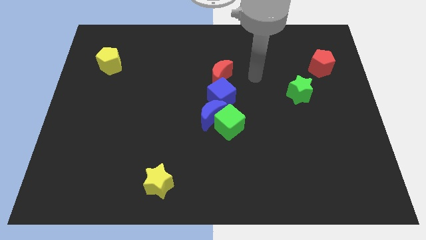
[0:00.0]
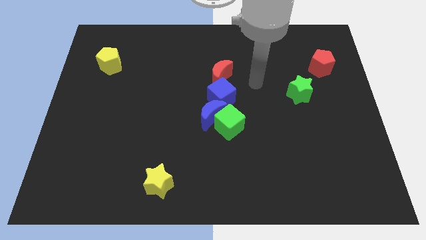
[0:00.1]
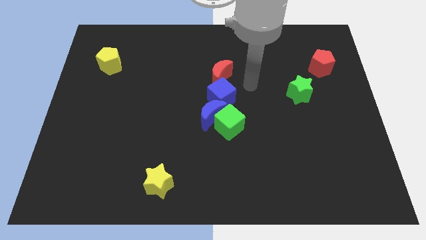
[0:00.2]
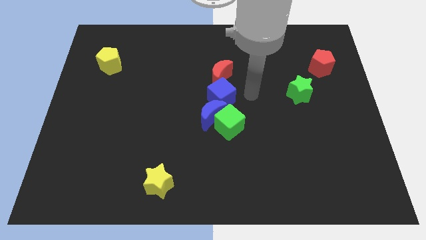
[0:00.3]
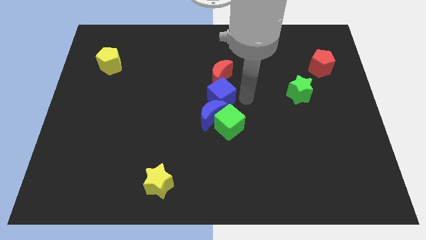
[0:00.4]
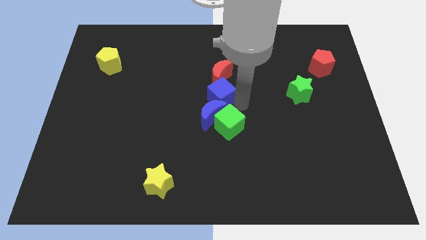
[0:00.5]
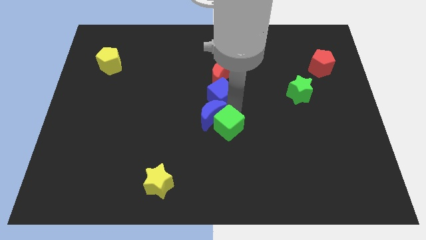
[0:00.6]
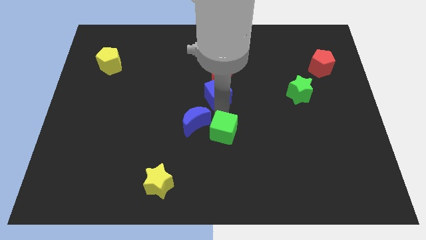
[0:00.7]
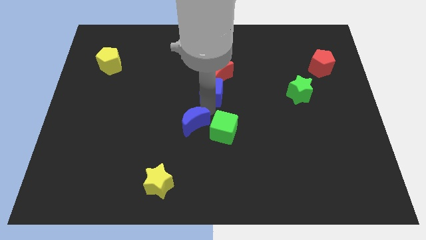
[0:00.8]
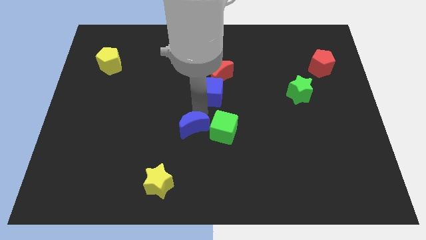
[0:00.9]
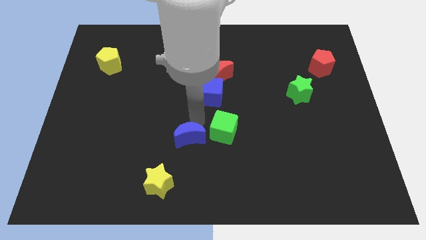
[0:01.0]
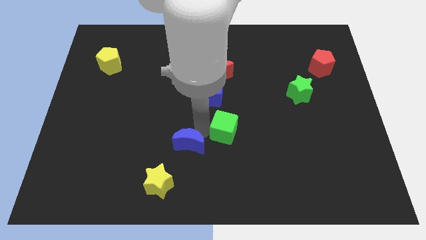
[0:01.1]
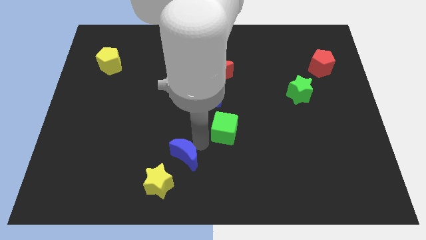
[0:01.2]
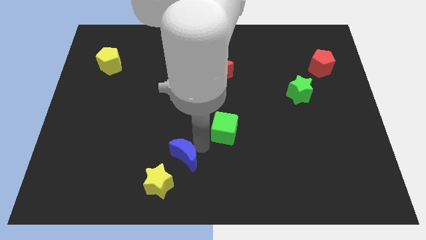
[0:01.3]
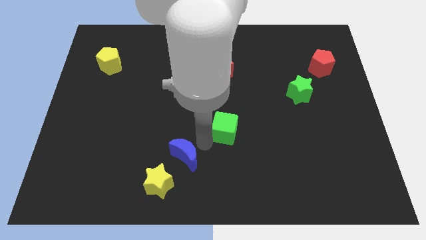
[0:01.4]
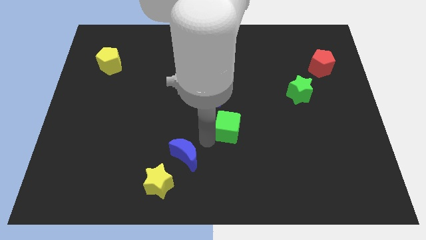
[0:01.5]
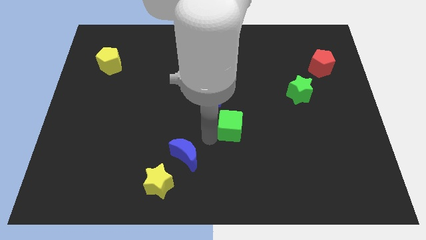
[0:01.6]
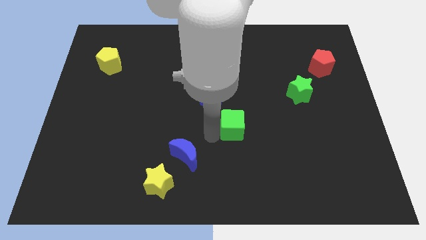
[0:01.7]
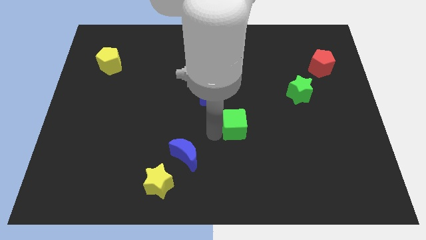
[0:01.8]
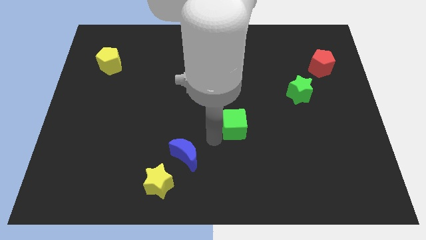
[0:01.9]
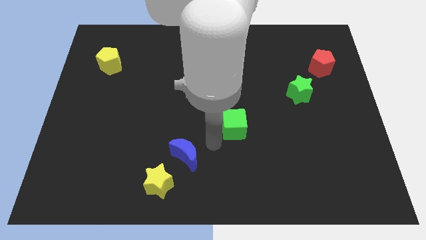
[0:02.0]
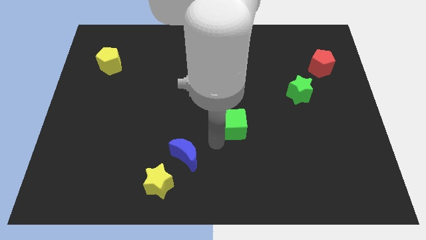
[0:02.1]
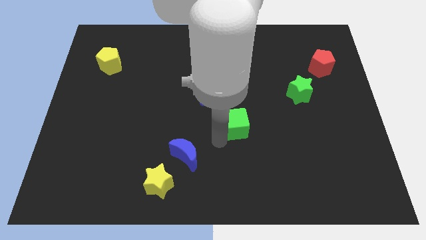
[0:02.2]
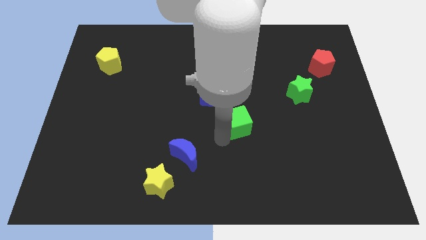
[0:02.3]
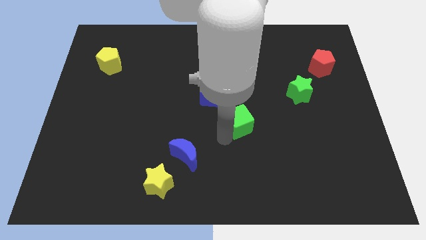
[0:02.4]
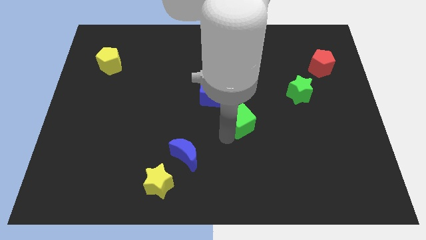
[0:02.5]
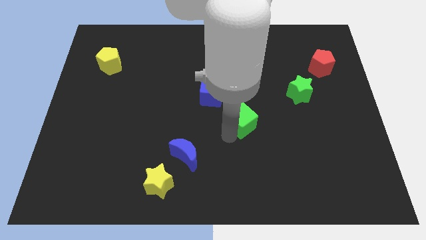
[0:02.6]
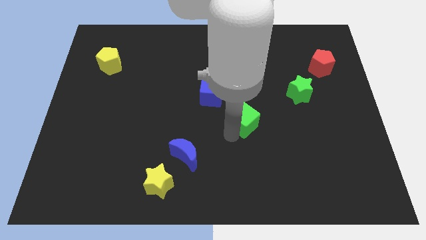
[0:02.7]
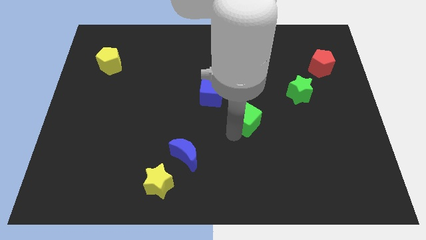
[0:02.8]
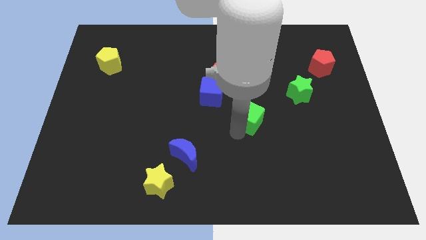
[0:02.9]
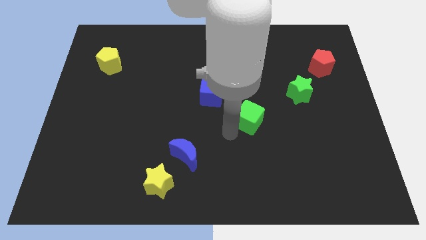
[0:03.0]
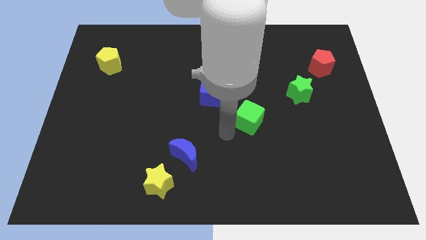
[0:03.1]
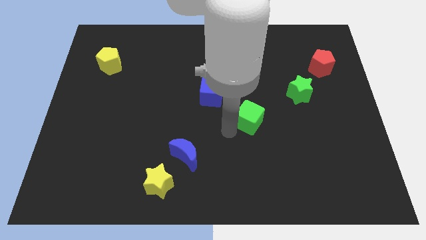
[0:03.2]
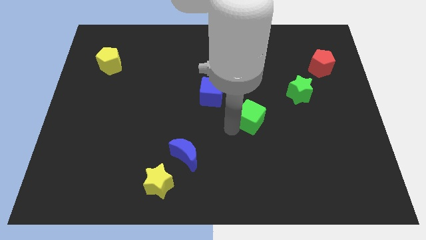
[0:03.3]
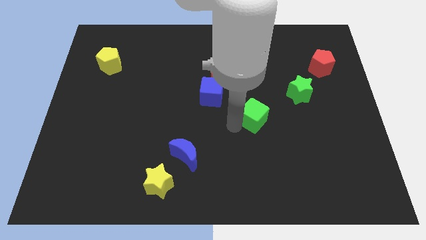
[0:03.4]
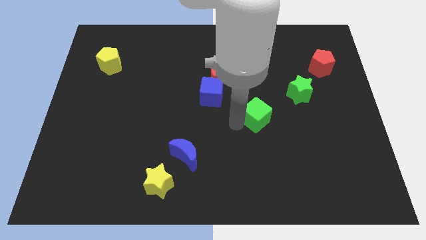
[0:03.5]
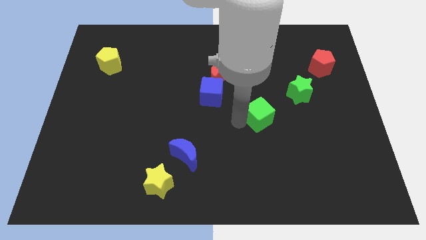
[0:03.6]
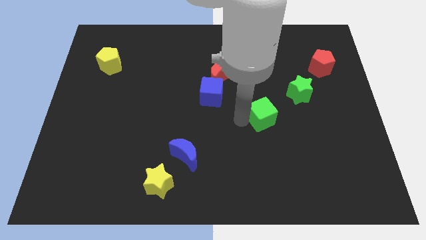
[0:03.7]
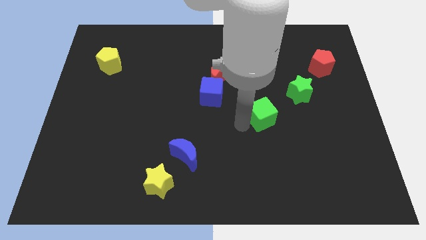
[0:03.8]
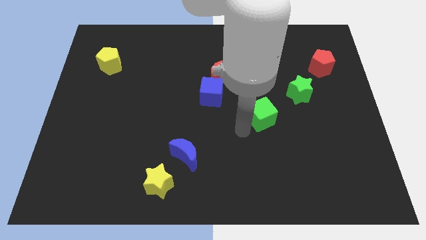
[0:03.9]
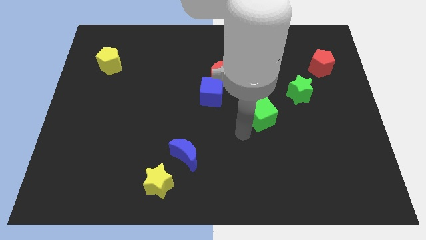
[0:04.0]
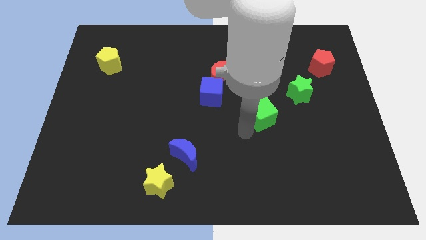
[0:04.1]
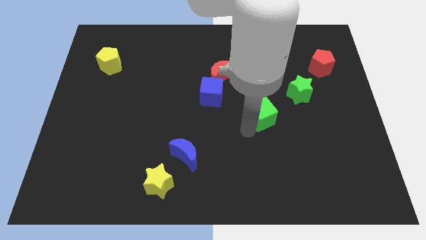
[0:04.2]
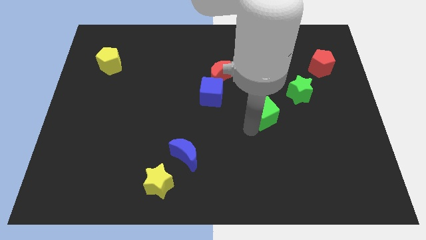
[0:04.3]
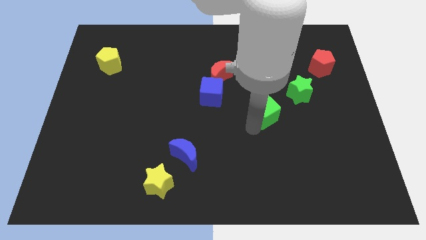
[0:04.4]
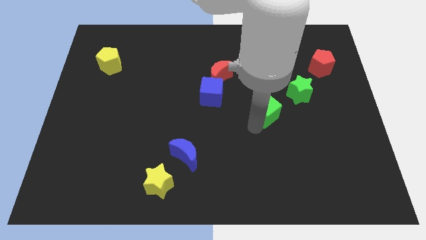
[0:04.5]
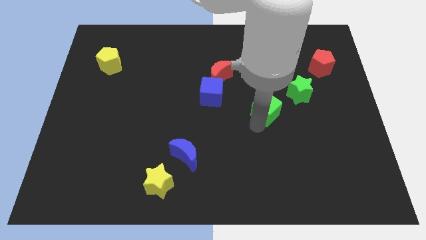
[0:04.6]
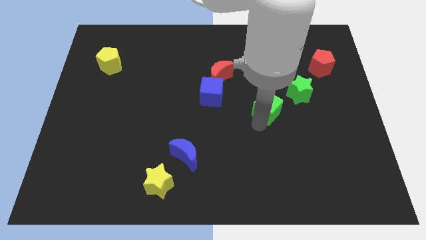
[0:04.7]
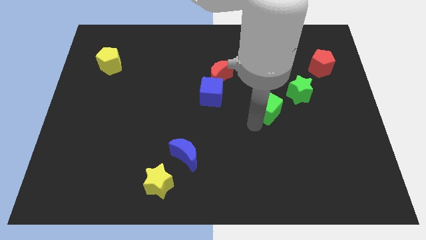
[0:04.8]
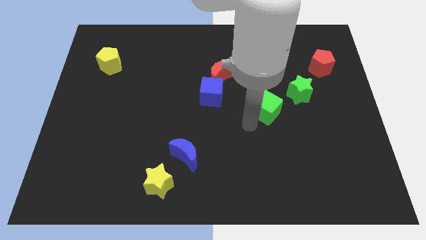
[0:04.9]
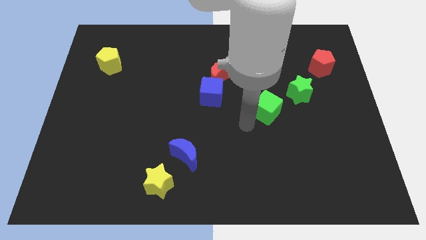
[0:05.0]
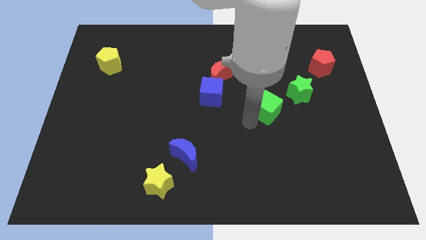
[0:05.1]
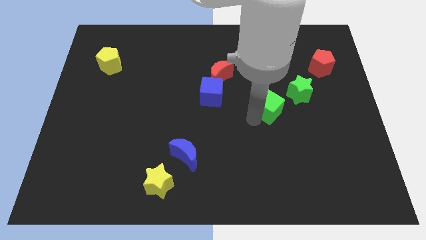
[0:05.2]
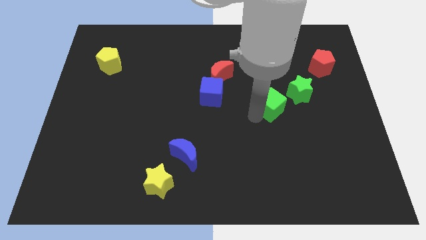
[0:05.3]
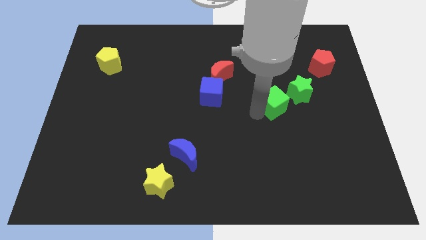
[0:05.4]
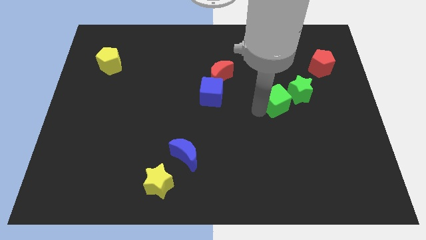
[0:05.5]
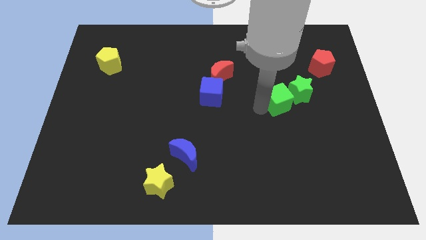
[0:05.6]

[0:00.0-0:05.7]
slide the green cube next to the green star

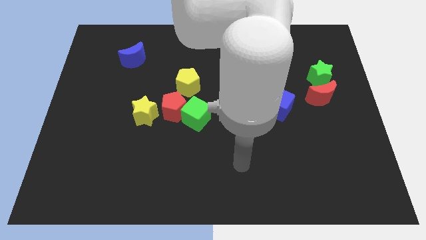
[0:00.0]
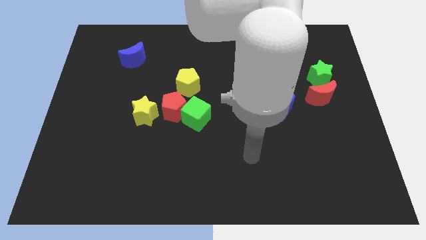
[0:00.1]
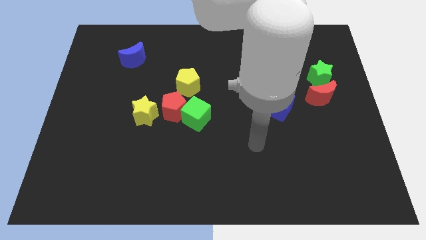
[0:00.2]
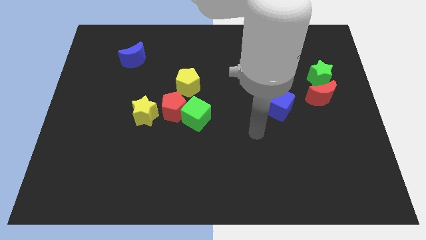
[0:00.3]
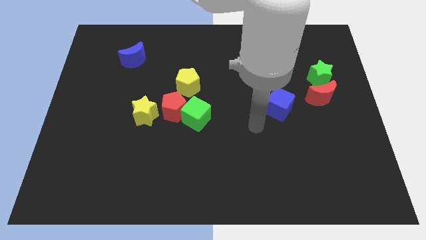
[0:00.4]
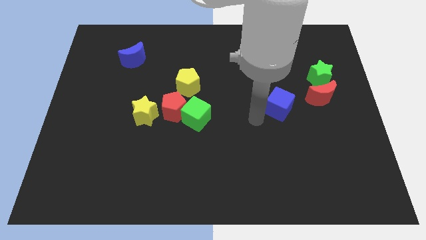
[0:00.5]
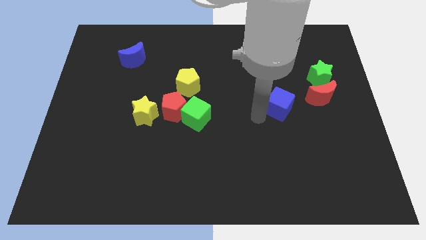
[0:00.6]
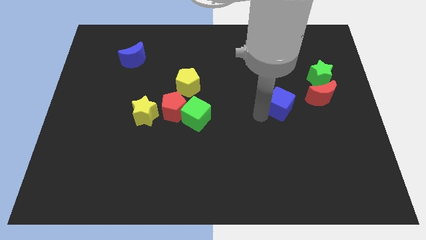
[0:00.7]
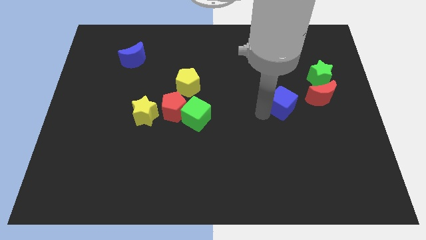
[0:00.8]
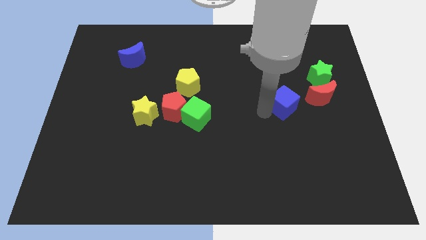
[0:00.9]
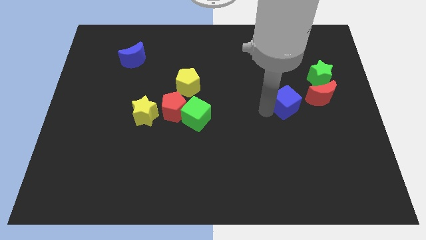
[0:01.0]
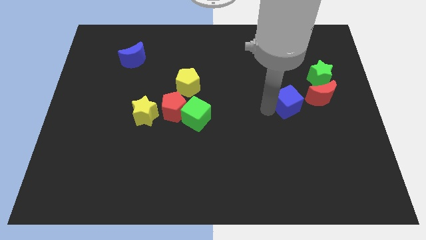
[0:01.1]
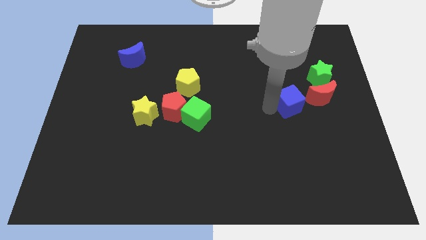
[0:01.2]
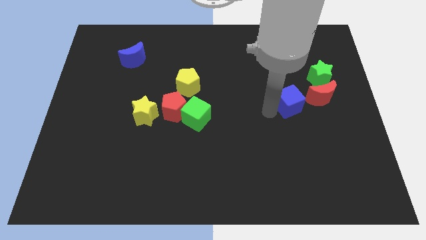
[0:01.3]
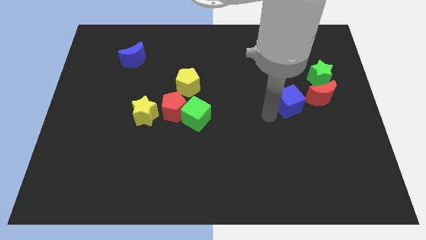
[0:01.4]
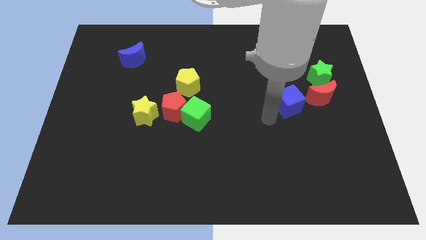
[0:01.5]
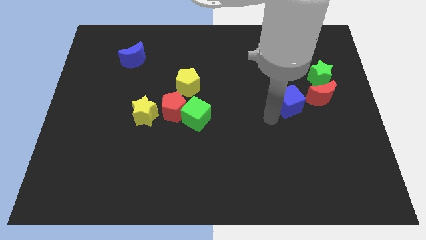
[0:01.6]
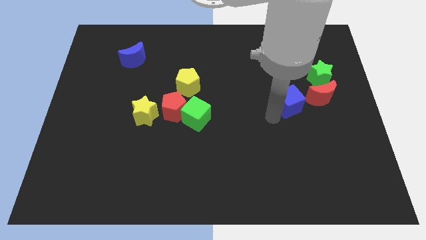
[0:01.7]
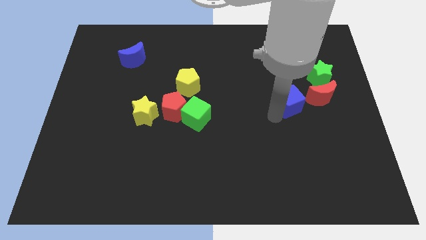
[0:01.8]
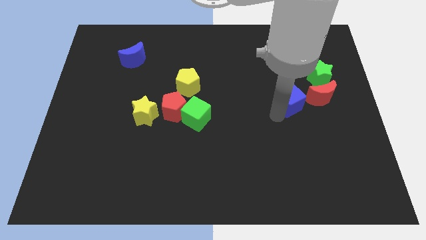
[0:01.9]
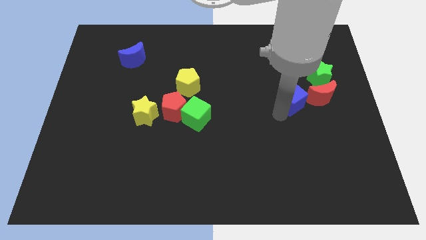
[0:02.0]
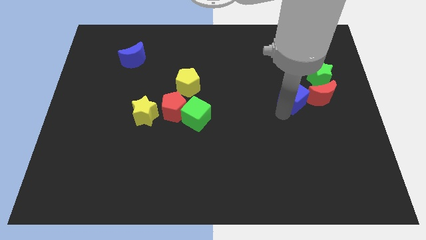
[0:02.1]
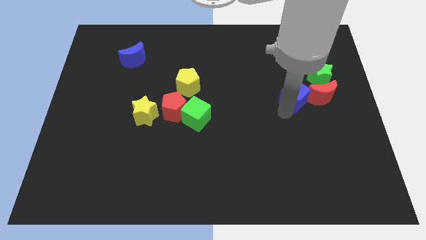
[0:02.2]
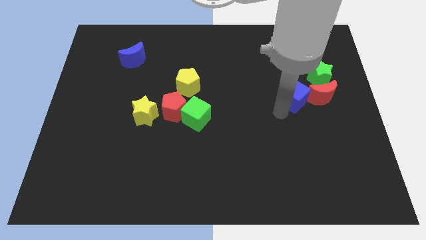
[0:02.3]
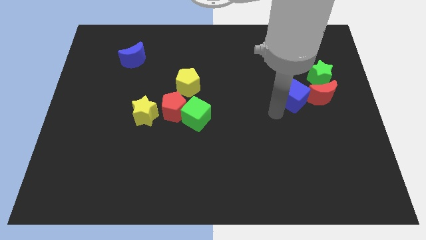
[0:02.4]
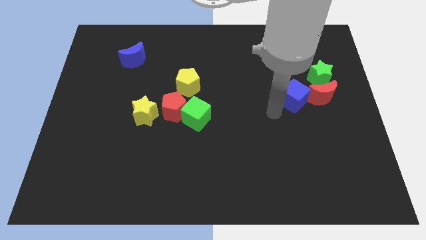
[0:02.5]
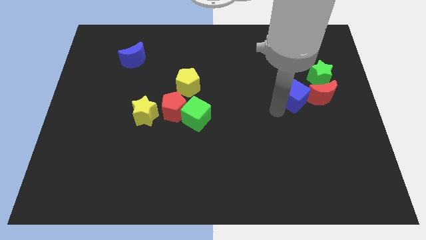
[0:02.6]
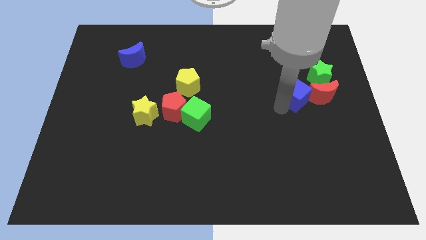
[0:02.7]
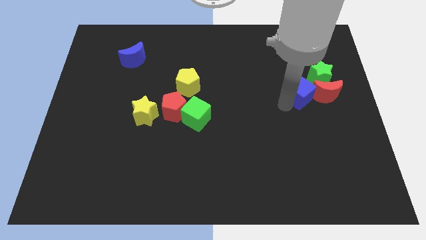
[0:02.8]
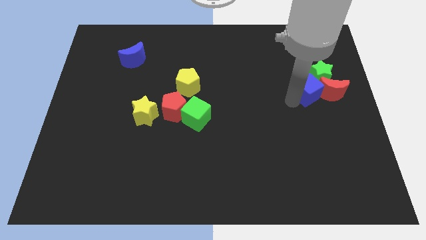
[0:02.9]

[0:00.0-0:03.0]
push the blue cube close to the green star
